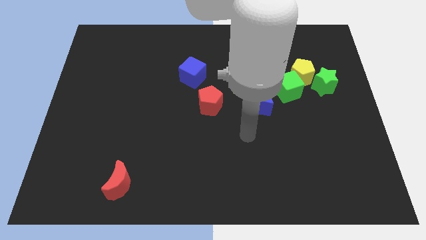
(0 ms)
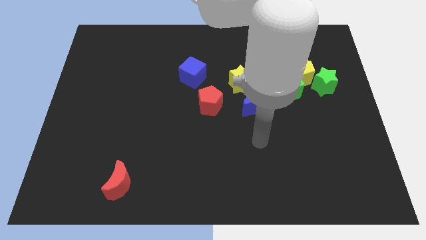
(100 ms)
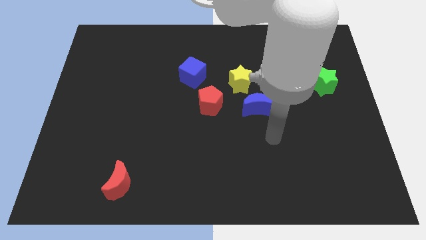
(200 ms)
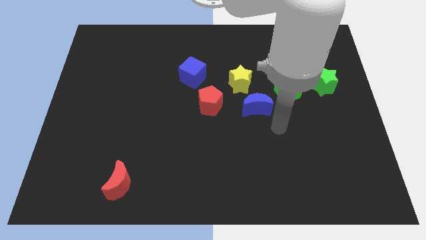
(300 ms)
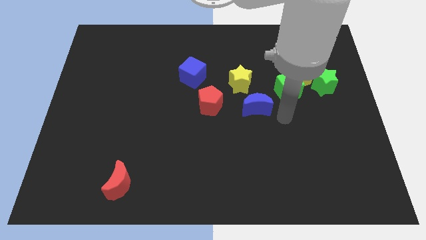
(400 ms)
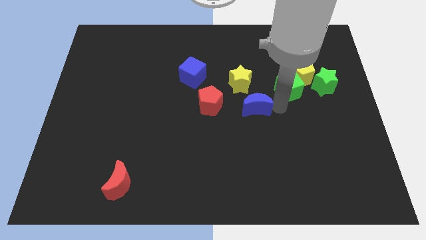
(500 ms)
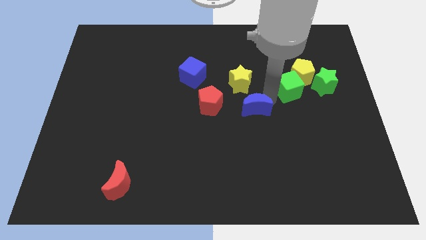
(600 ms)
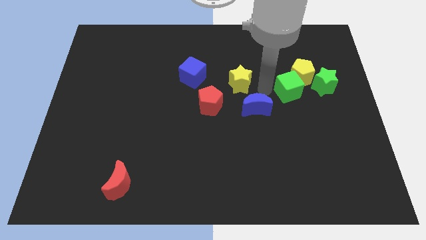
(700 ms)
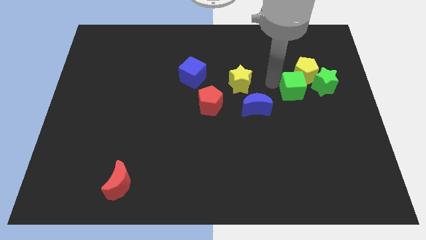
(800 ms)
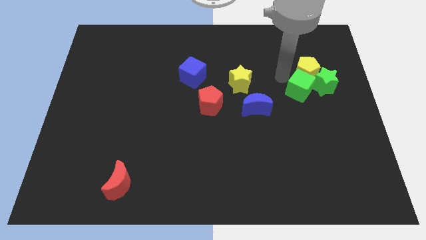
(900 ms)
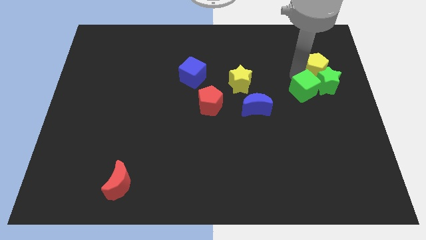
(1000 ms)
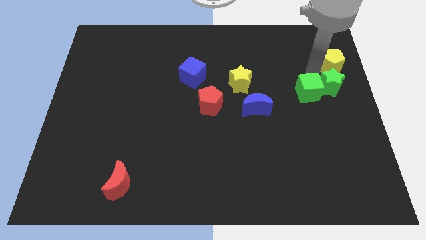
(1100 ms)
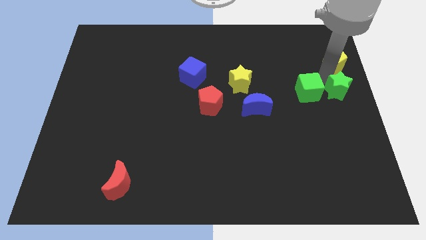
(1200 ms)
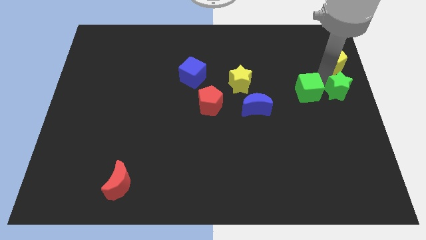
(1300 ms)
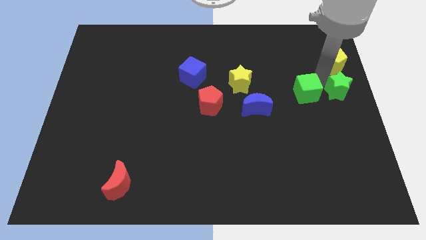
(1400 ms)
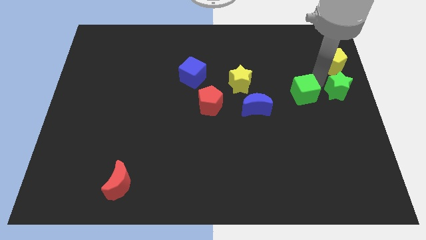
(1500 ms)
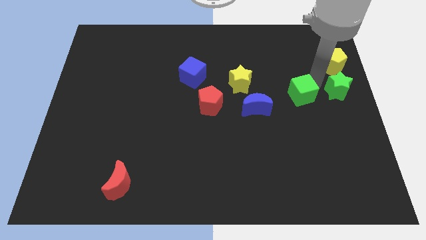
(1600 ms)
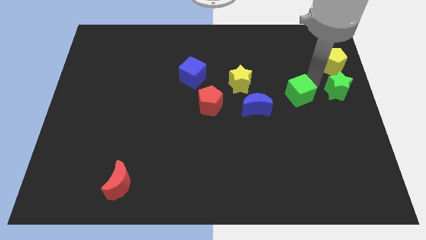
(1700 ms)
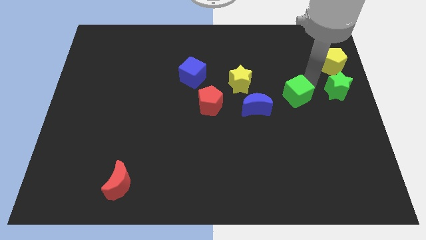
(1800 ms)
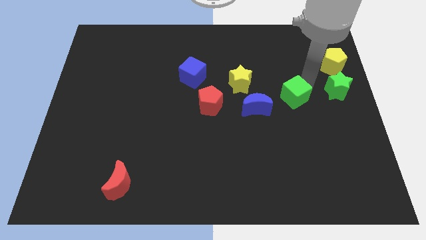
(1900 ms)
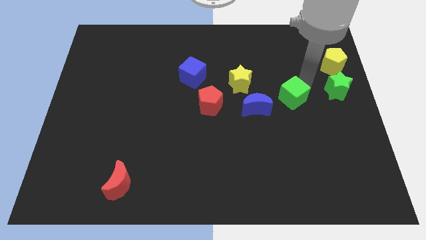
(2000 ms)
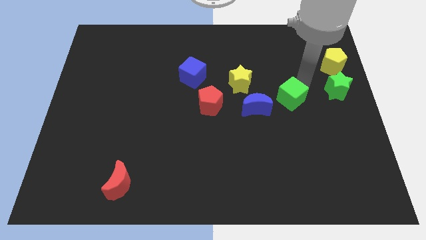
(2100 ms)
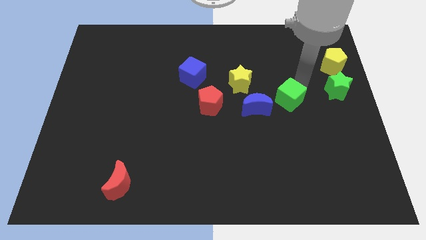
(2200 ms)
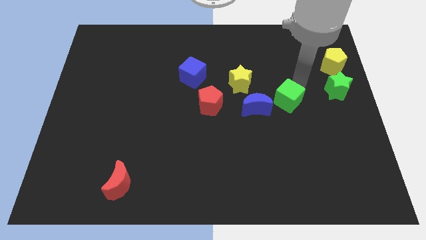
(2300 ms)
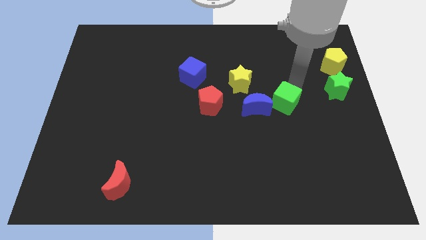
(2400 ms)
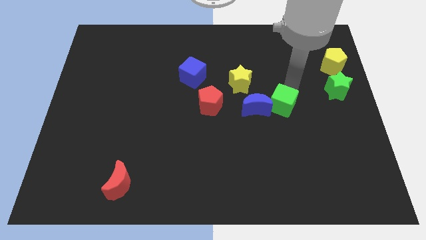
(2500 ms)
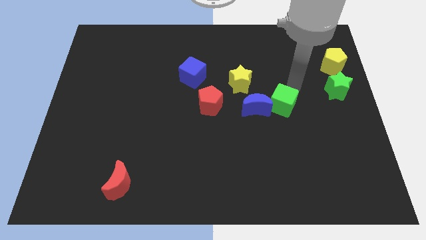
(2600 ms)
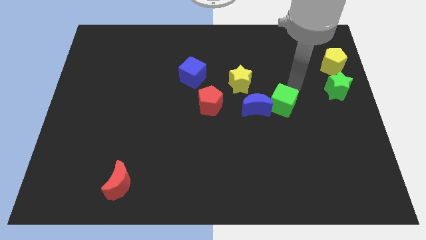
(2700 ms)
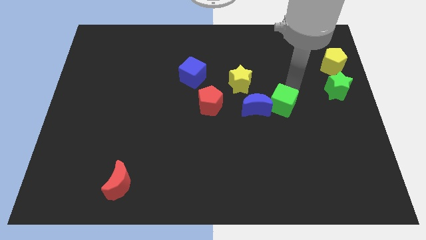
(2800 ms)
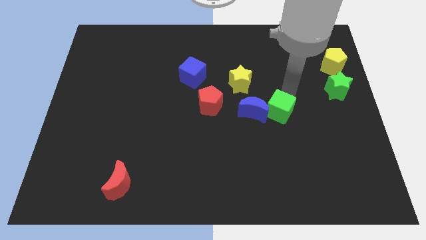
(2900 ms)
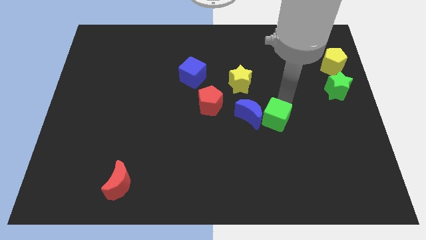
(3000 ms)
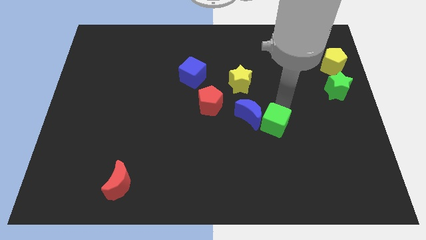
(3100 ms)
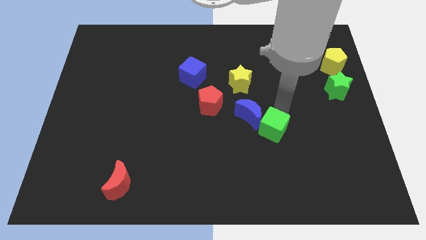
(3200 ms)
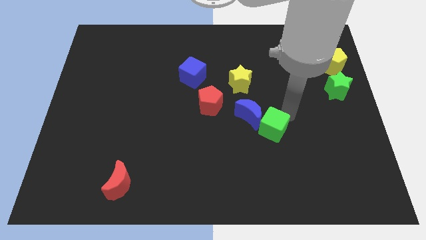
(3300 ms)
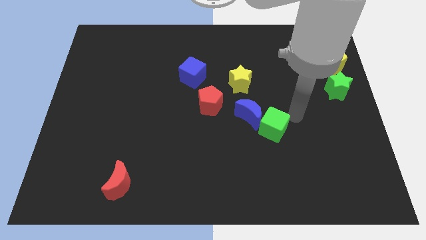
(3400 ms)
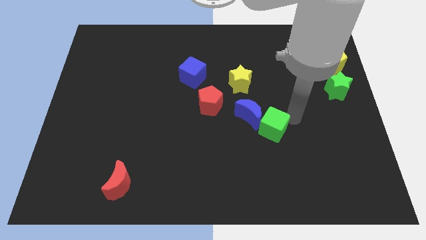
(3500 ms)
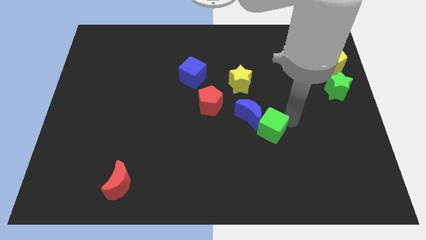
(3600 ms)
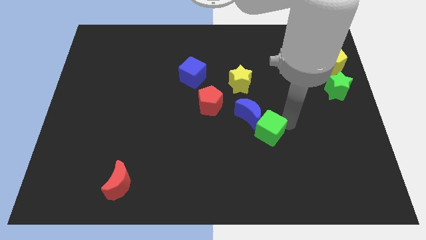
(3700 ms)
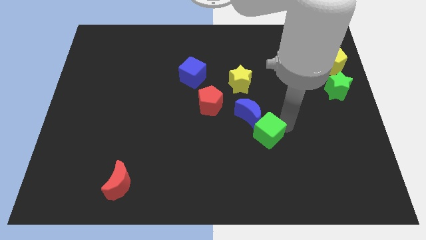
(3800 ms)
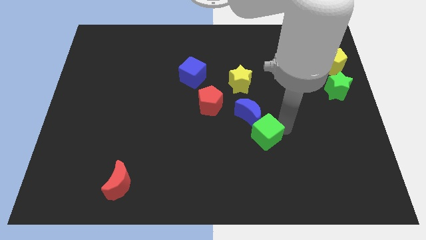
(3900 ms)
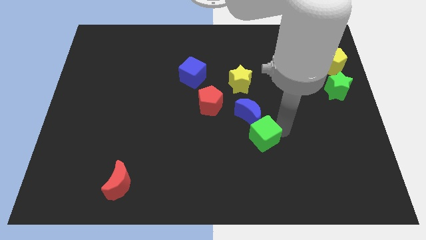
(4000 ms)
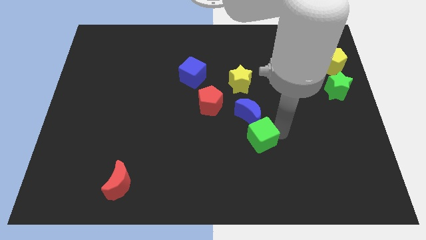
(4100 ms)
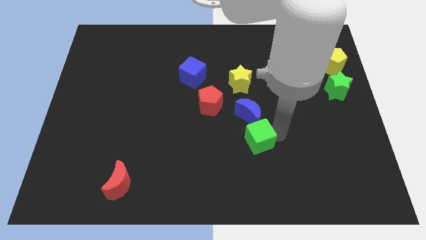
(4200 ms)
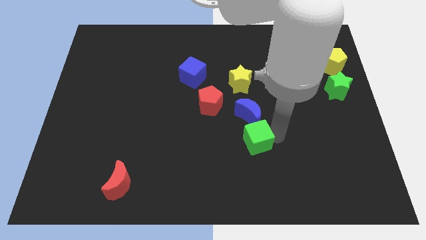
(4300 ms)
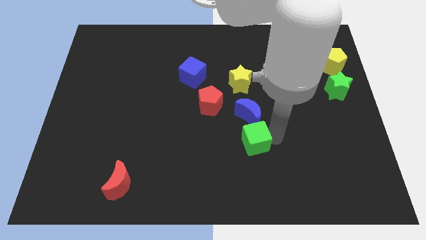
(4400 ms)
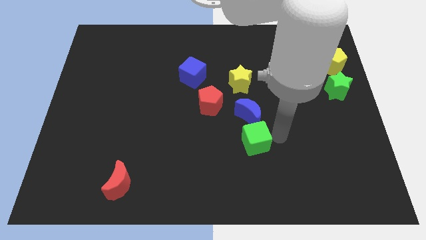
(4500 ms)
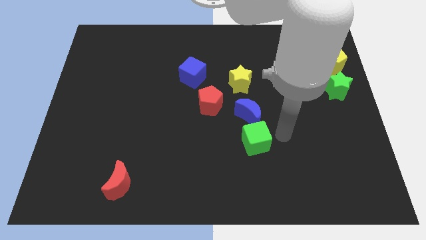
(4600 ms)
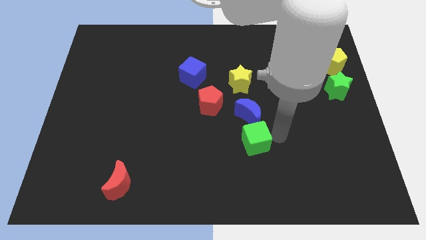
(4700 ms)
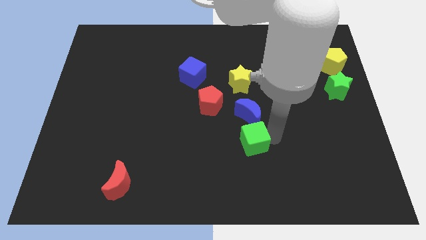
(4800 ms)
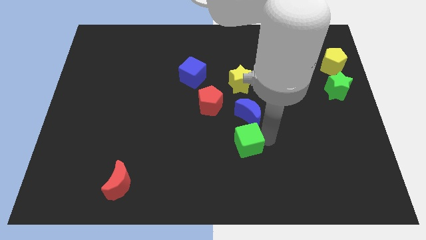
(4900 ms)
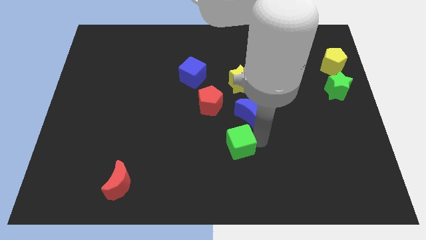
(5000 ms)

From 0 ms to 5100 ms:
move the green cube downwards and to the left diagonally

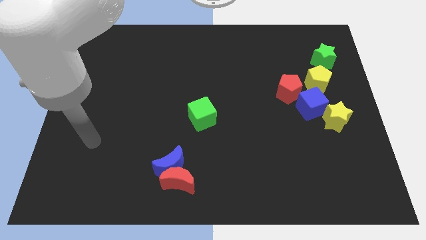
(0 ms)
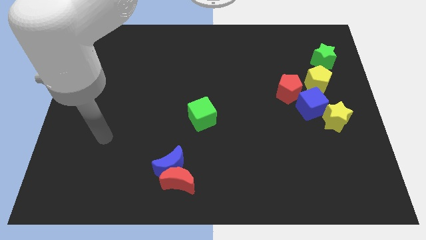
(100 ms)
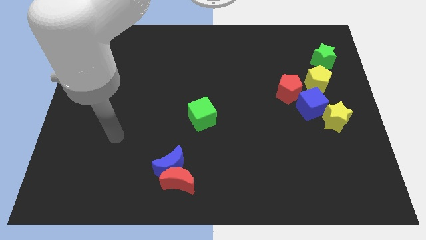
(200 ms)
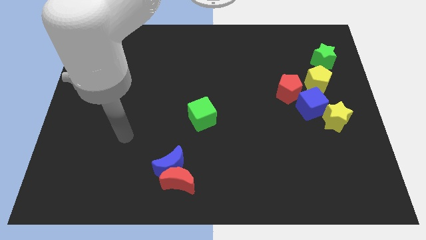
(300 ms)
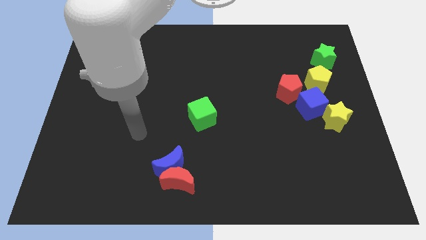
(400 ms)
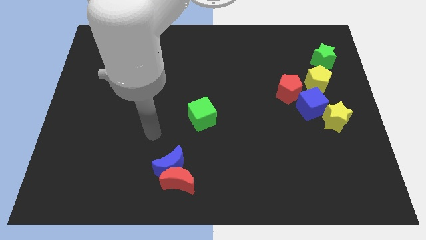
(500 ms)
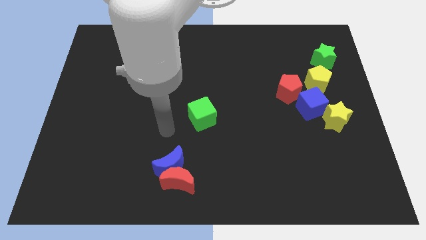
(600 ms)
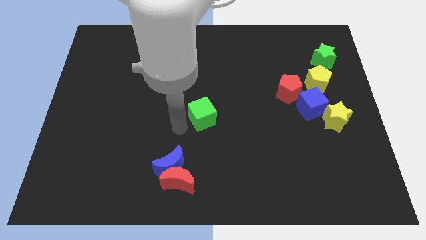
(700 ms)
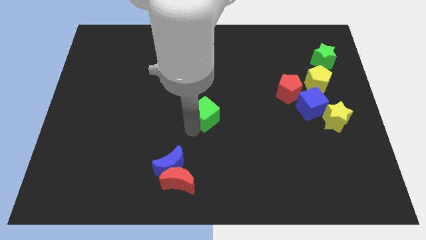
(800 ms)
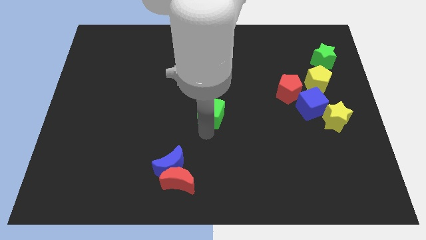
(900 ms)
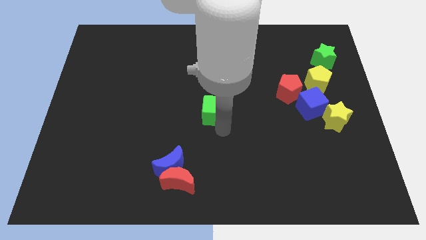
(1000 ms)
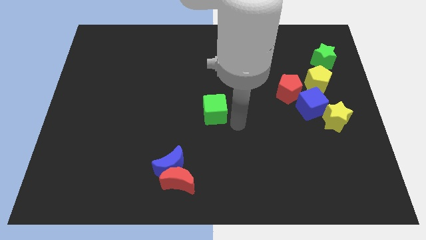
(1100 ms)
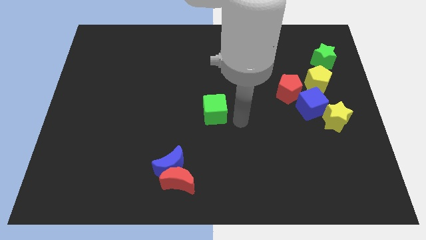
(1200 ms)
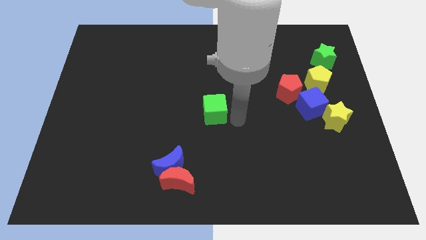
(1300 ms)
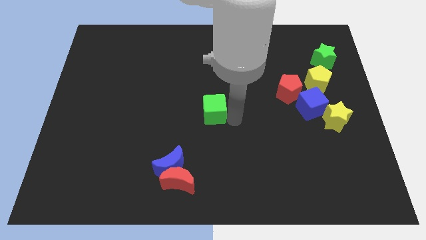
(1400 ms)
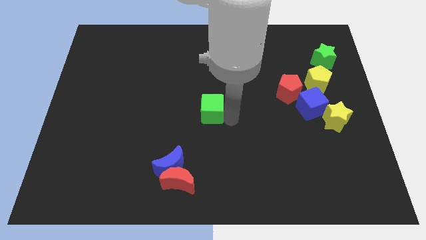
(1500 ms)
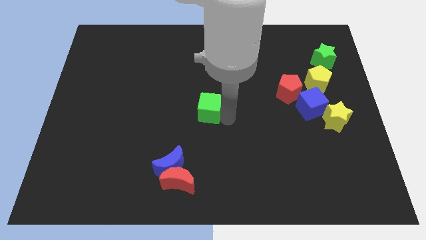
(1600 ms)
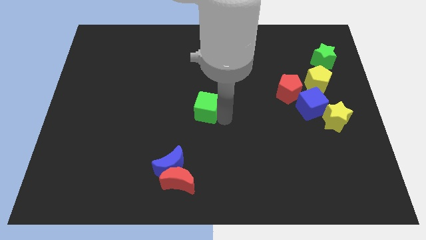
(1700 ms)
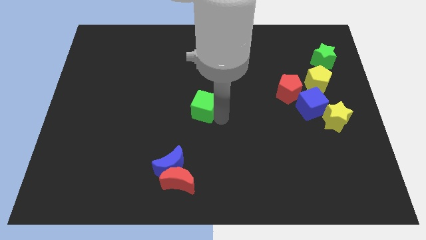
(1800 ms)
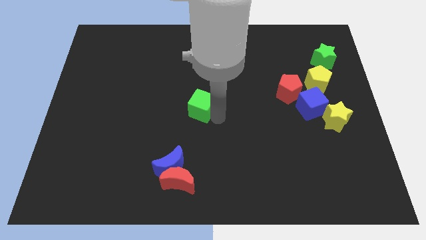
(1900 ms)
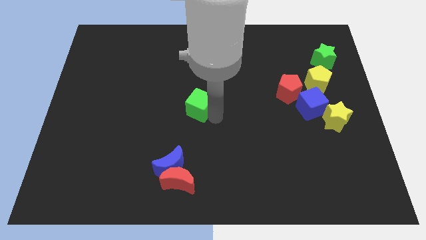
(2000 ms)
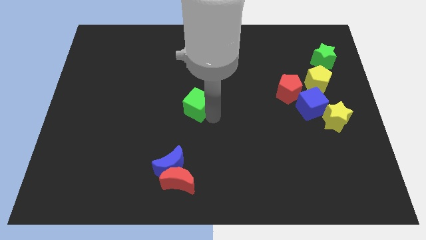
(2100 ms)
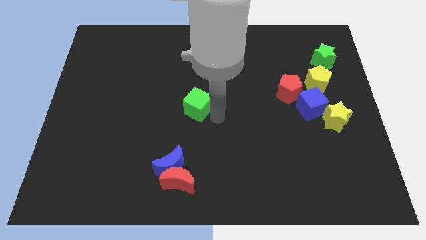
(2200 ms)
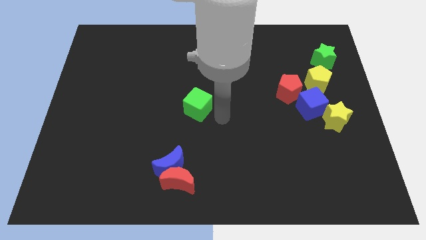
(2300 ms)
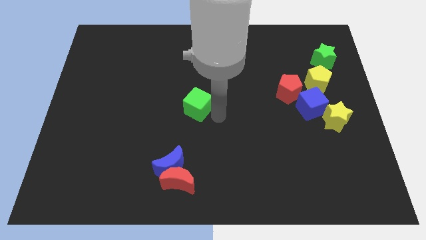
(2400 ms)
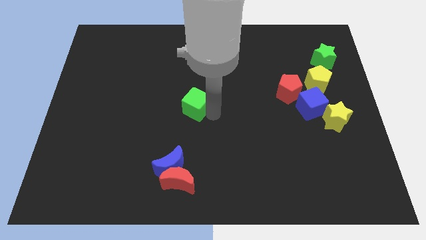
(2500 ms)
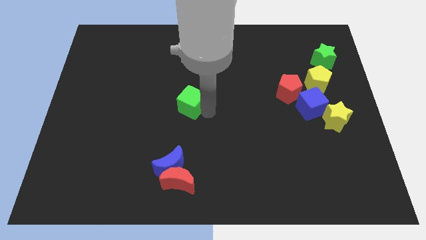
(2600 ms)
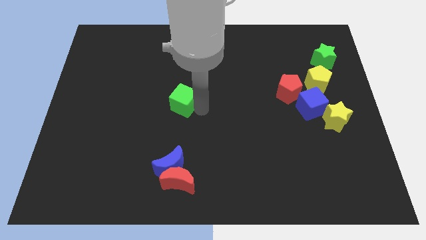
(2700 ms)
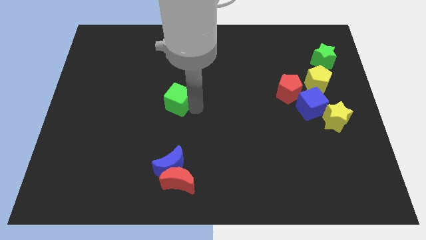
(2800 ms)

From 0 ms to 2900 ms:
move the green cube upwards and left diagonally a bit

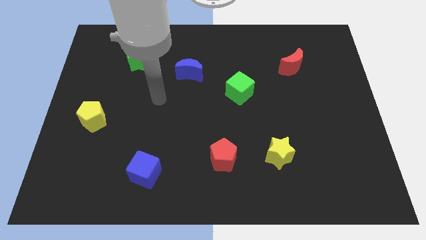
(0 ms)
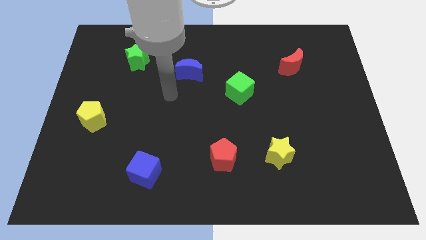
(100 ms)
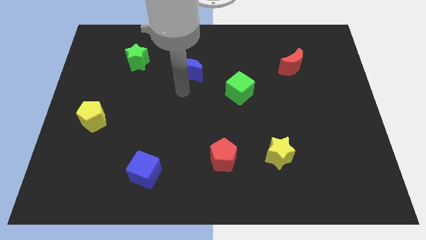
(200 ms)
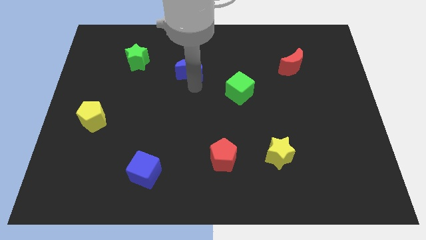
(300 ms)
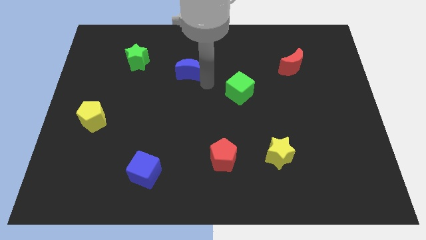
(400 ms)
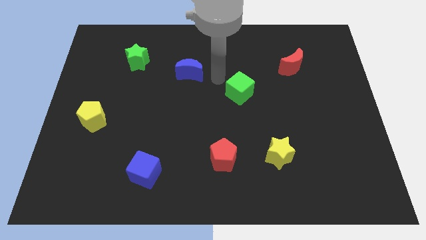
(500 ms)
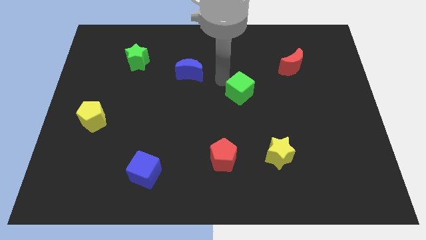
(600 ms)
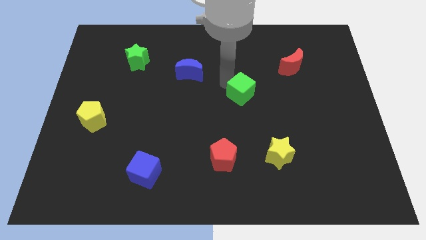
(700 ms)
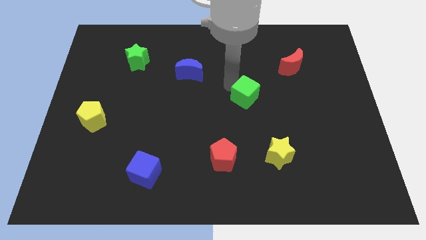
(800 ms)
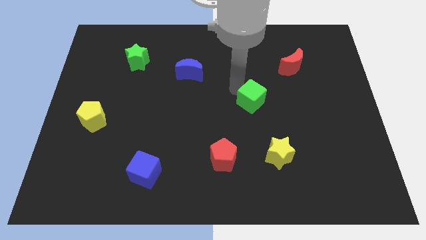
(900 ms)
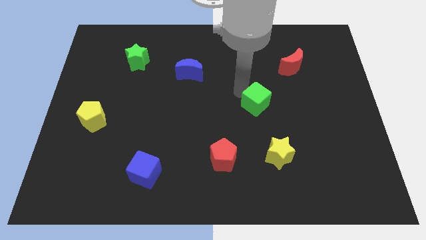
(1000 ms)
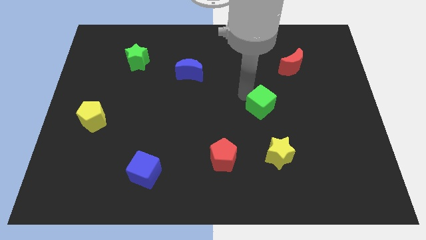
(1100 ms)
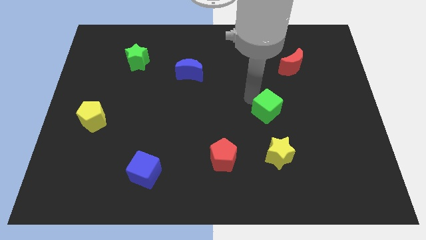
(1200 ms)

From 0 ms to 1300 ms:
slide the green cube slightly downwards and right diagonally
